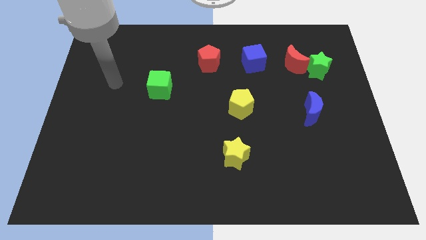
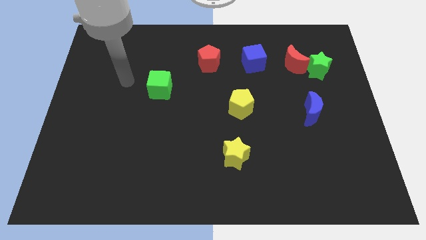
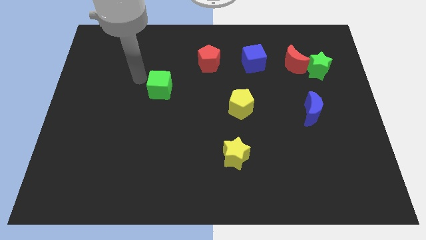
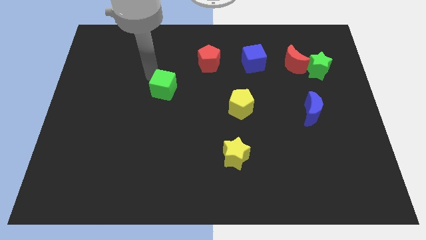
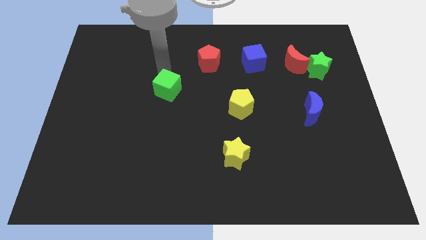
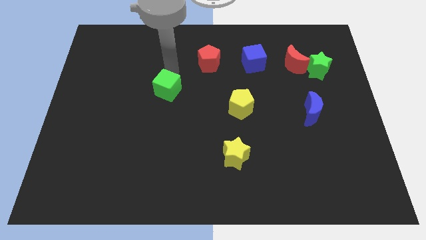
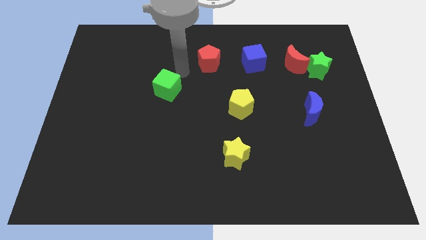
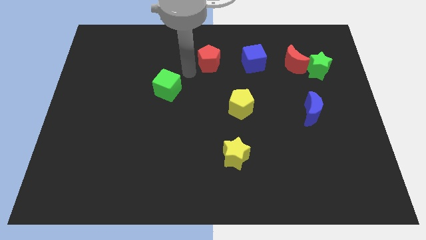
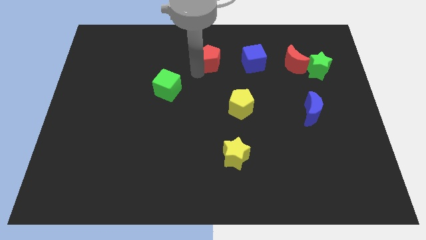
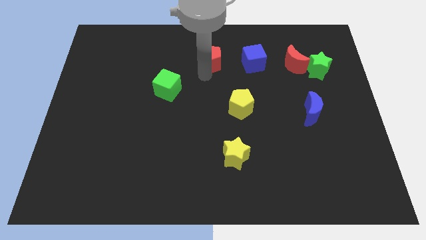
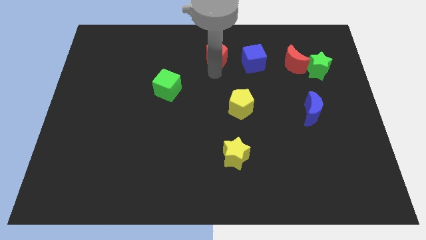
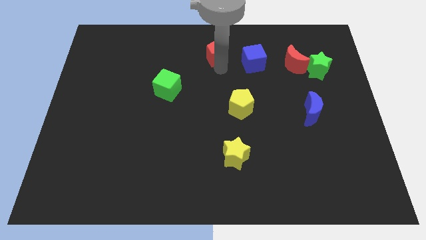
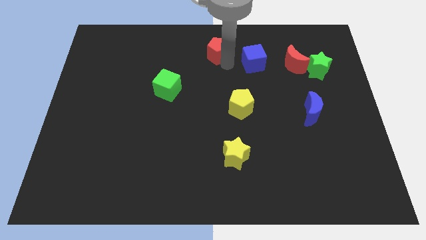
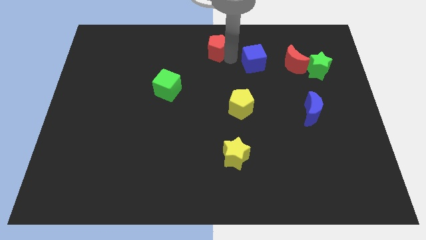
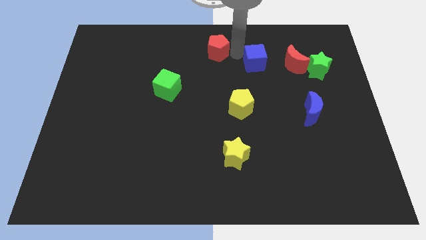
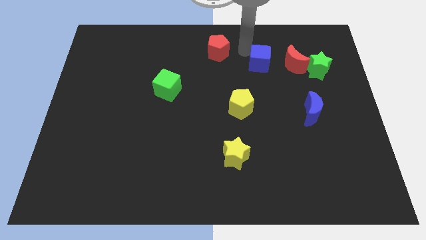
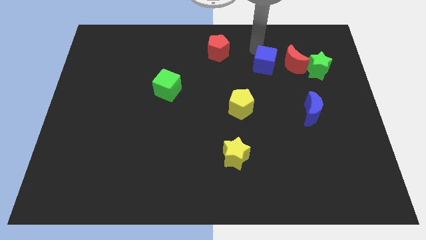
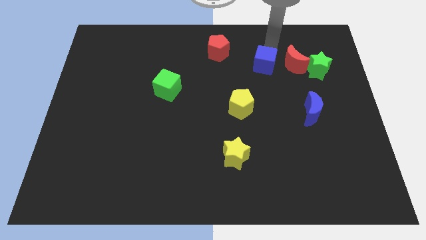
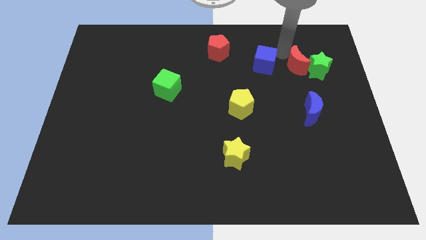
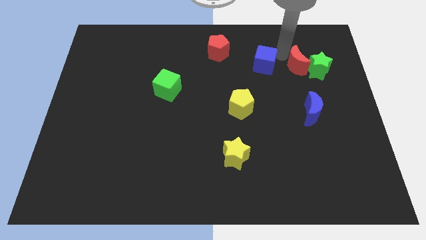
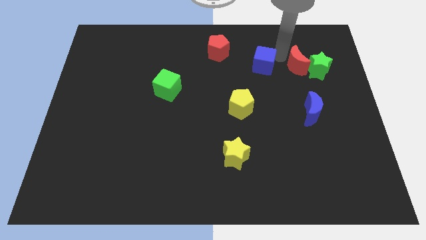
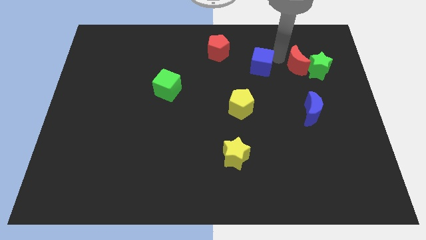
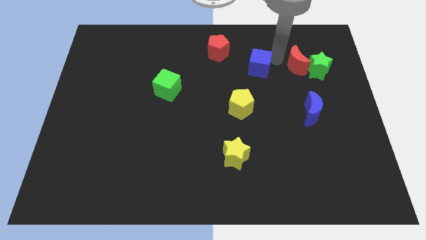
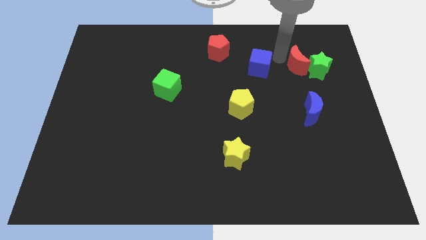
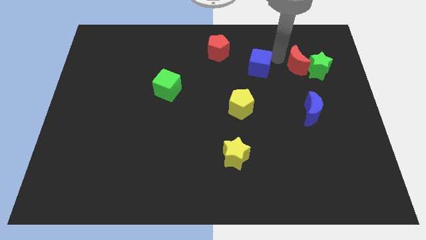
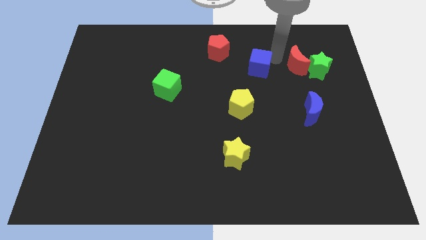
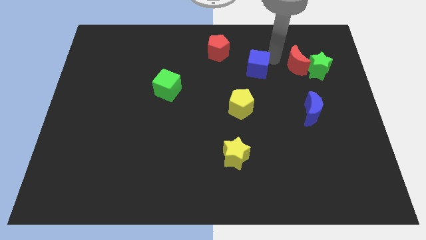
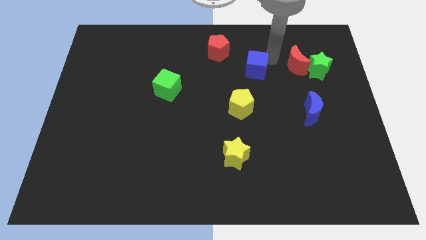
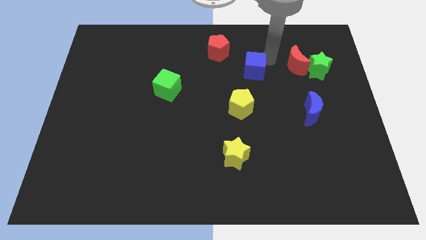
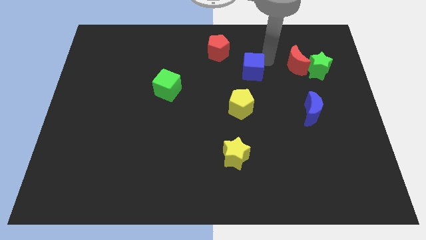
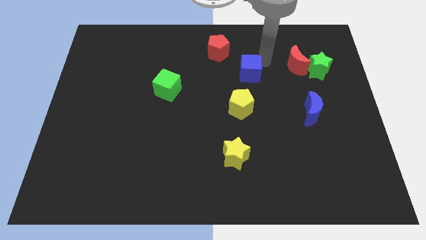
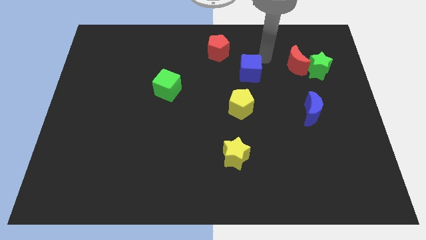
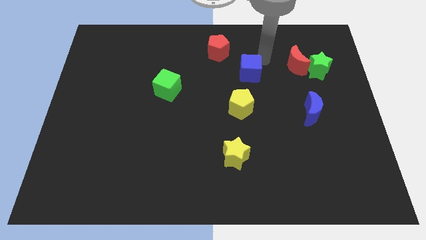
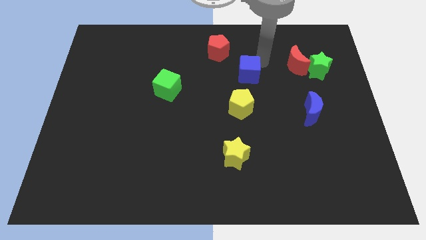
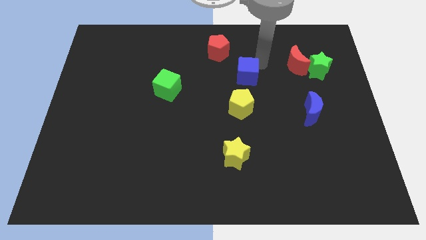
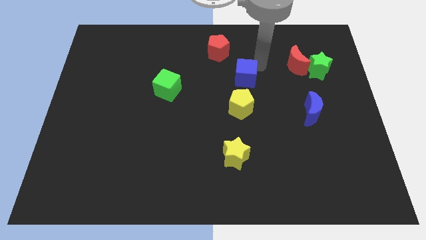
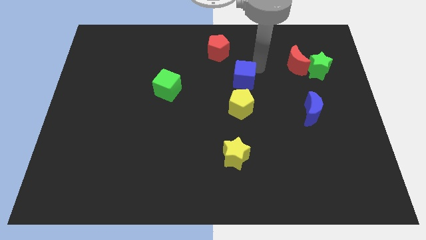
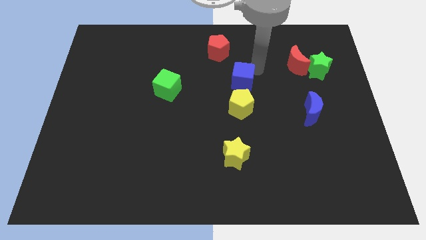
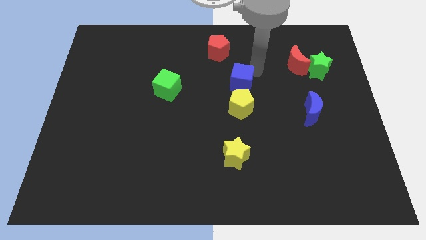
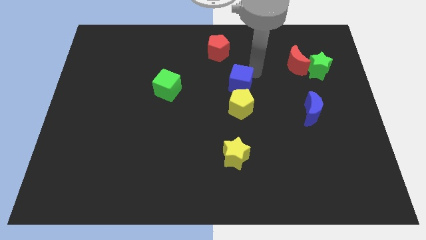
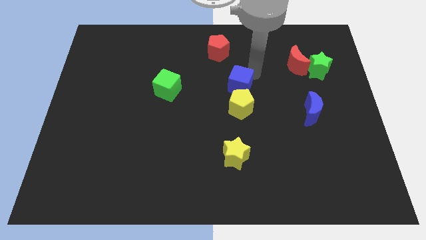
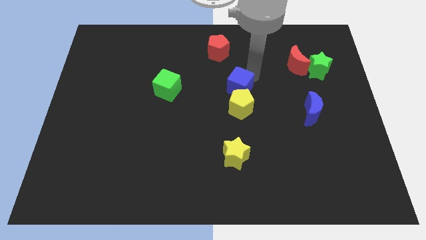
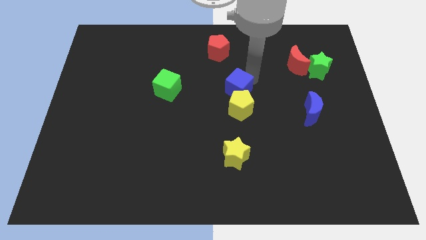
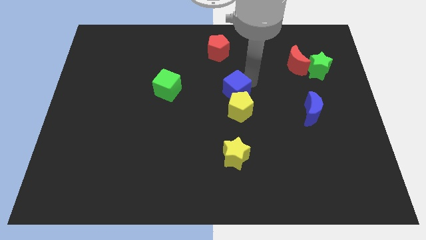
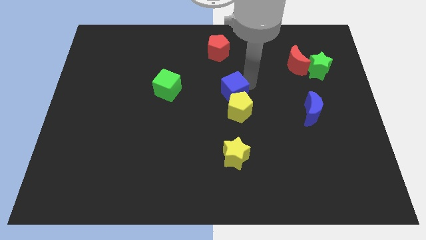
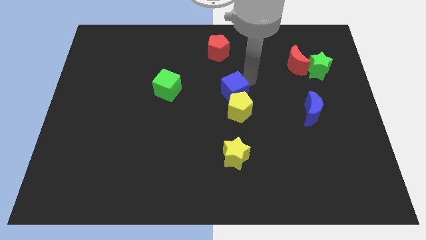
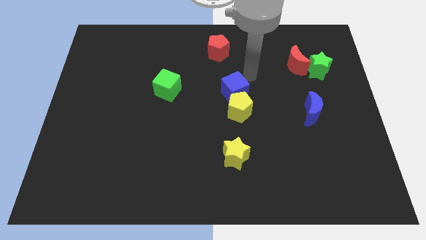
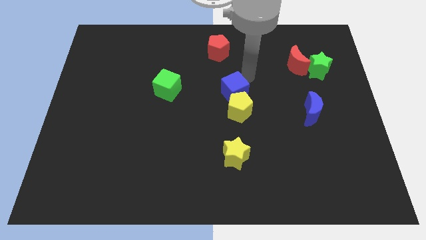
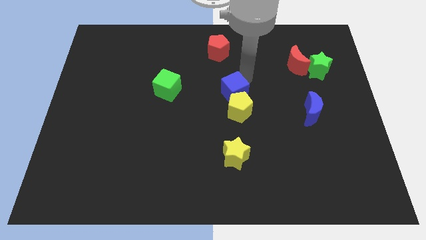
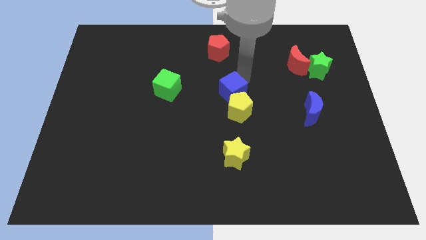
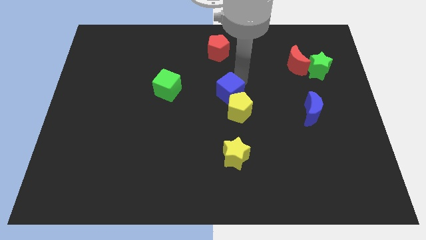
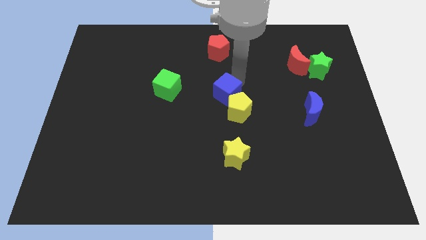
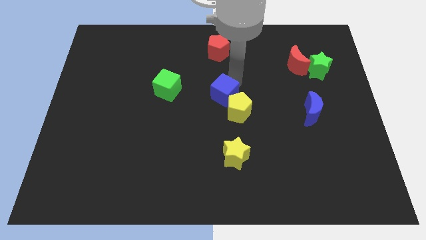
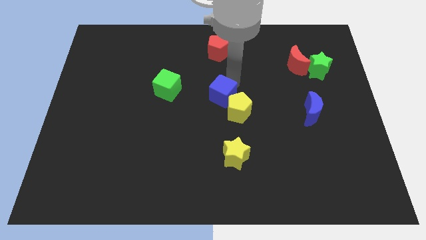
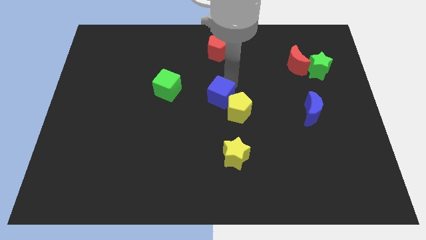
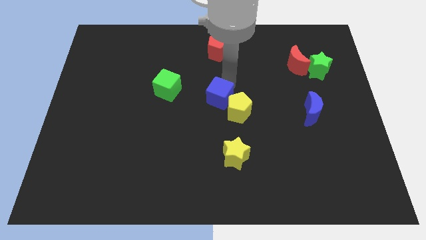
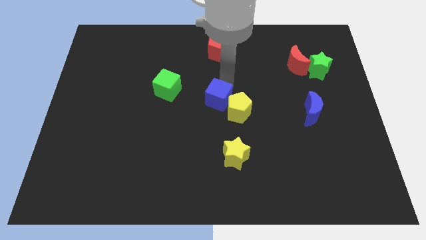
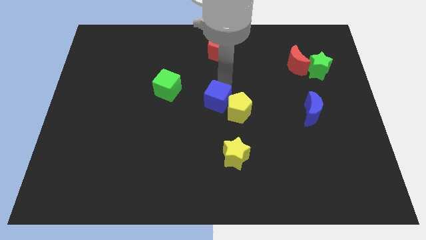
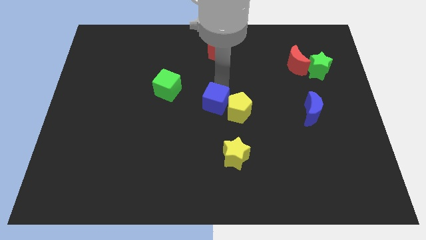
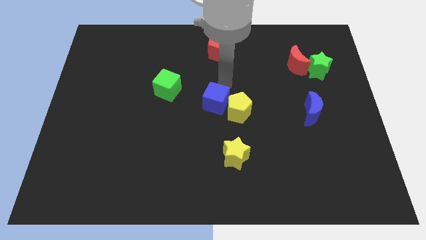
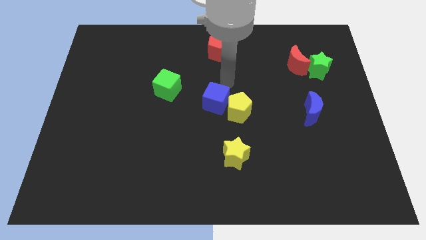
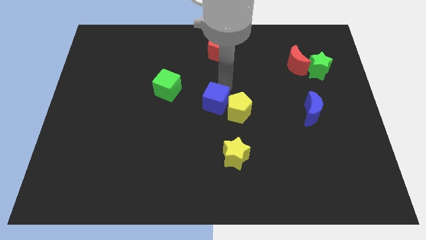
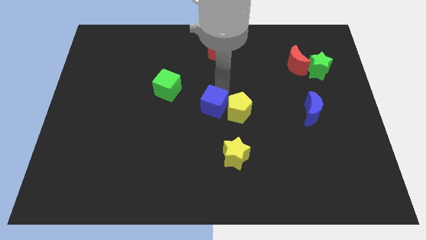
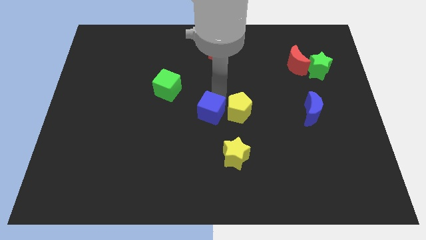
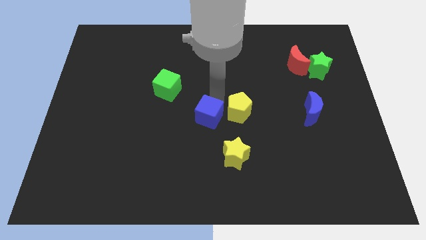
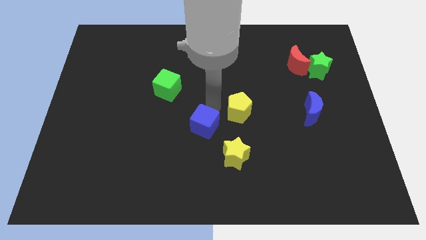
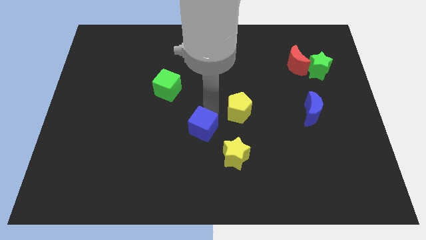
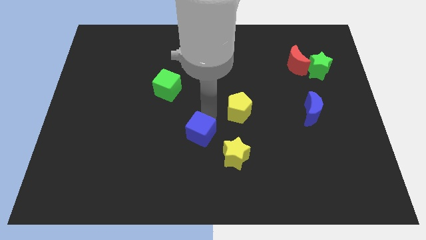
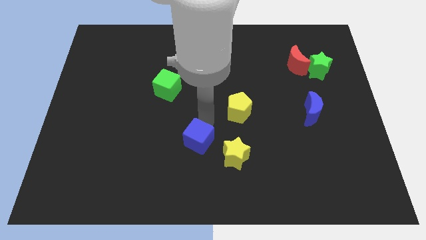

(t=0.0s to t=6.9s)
put the blue cube left of the yellow star
